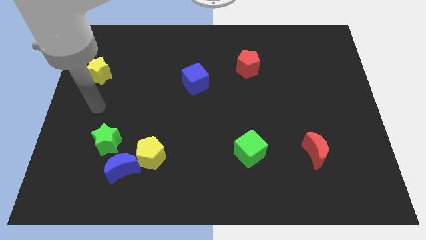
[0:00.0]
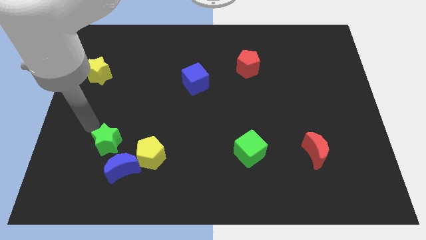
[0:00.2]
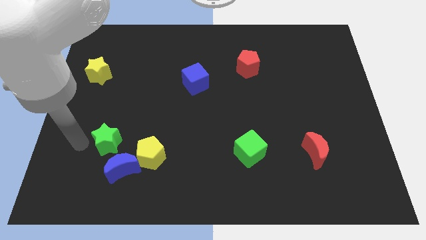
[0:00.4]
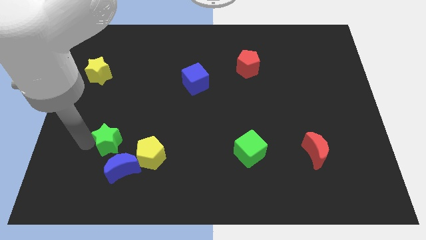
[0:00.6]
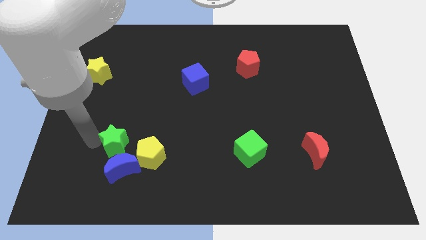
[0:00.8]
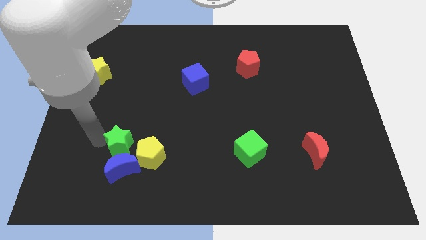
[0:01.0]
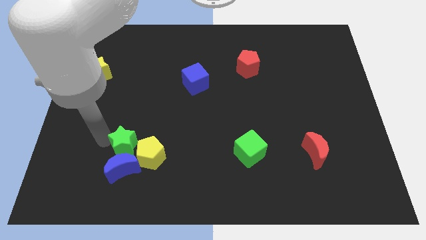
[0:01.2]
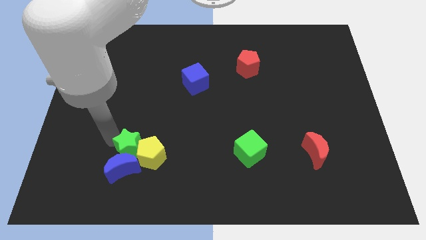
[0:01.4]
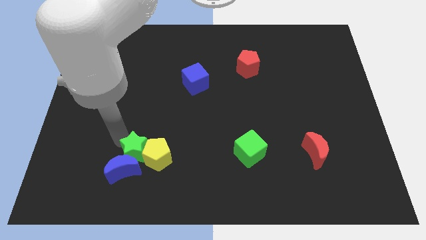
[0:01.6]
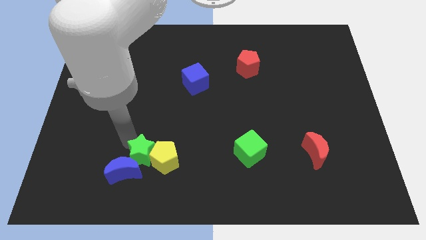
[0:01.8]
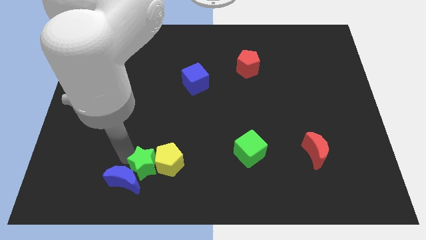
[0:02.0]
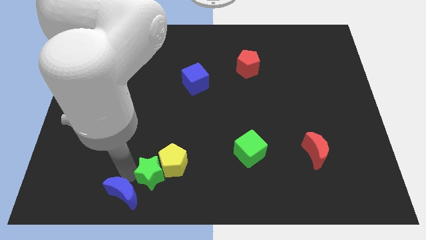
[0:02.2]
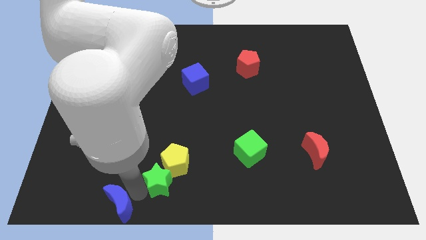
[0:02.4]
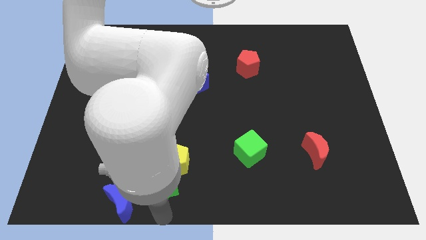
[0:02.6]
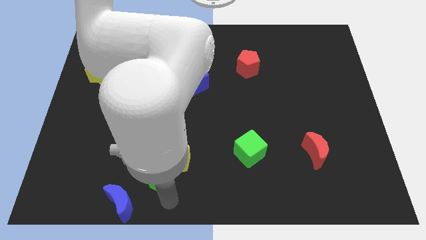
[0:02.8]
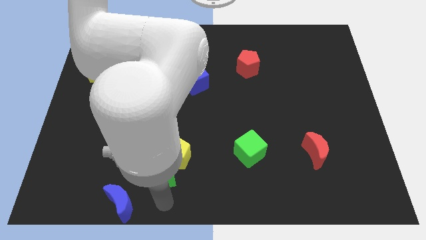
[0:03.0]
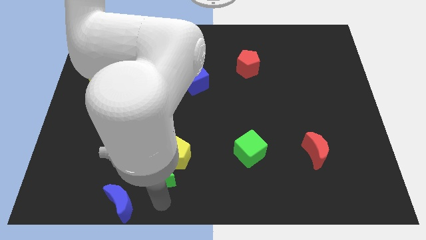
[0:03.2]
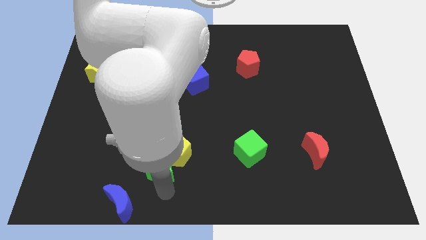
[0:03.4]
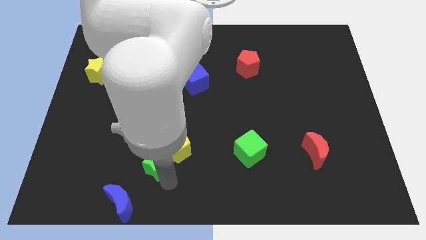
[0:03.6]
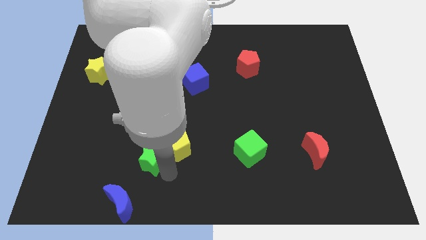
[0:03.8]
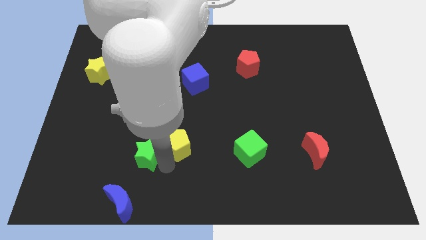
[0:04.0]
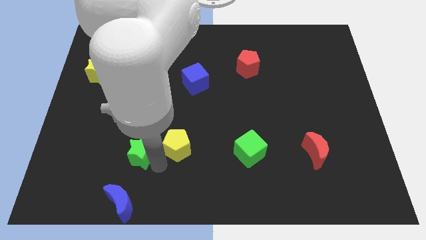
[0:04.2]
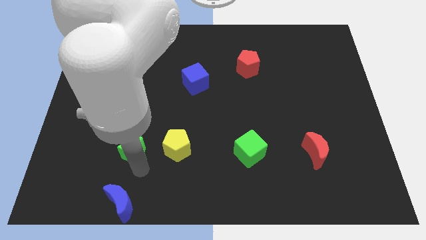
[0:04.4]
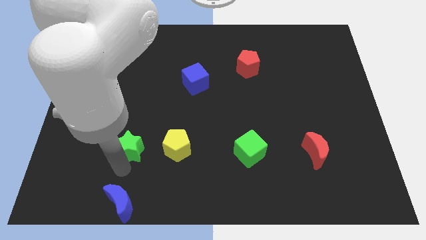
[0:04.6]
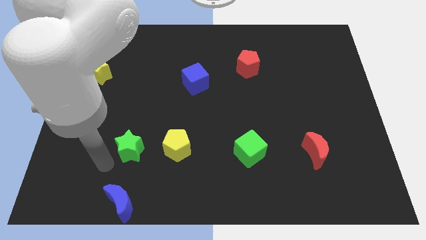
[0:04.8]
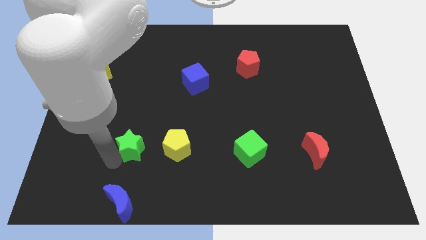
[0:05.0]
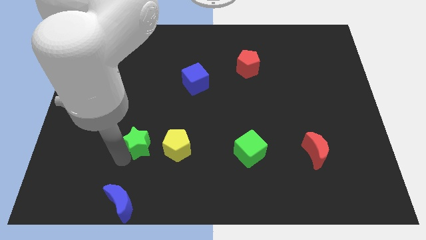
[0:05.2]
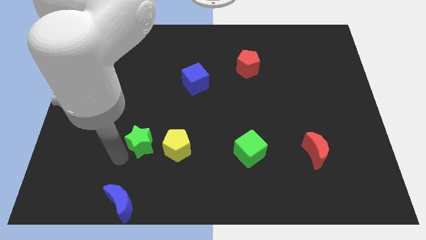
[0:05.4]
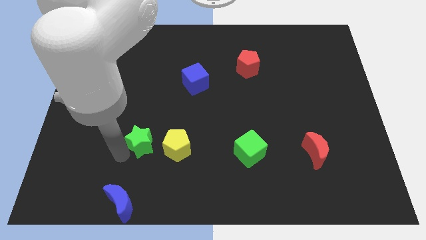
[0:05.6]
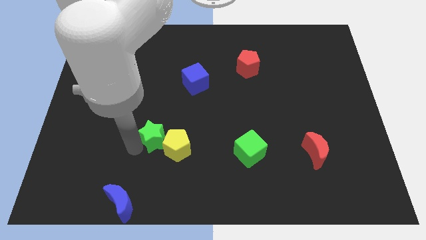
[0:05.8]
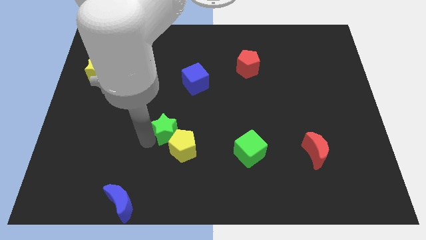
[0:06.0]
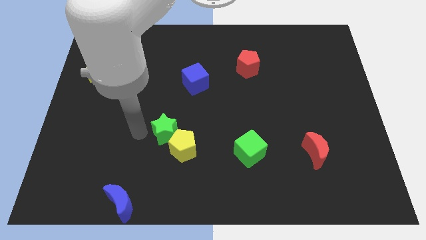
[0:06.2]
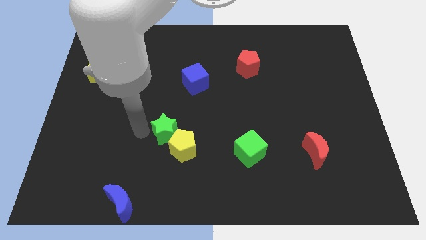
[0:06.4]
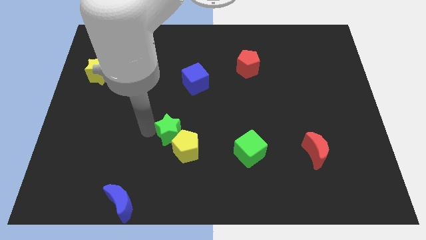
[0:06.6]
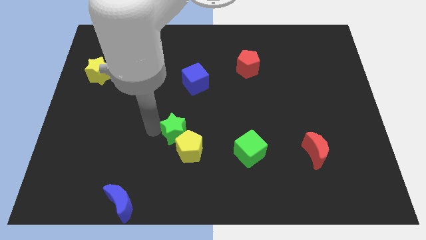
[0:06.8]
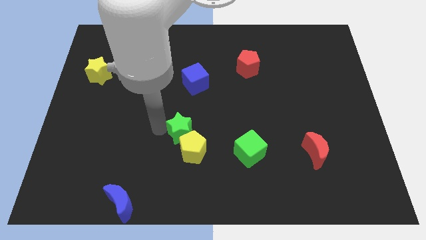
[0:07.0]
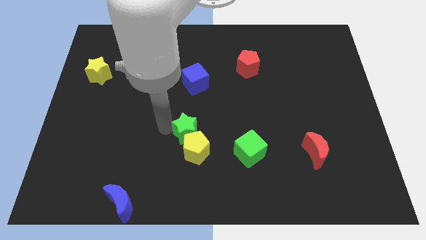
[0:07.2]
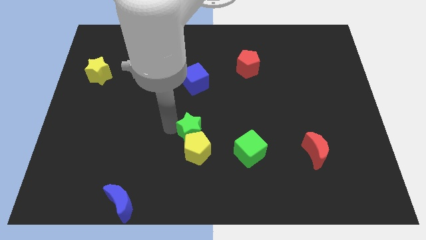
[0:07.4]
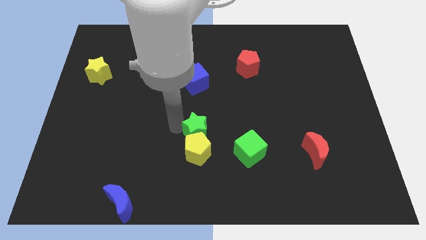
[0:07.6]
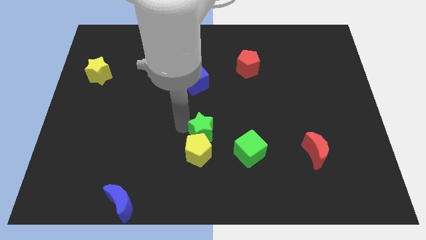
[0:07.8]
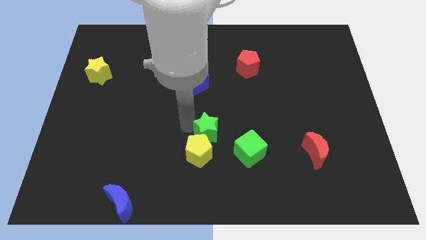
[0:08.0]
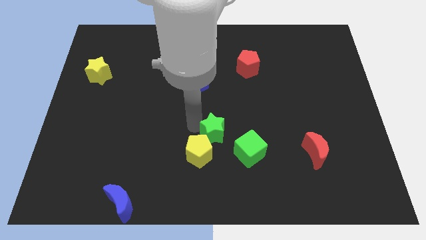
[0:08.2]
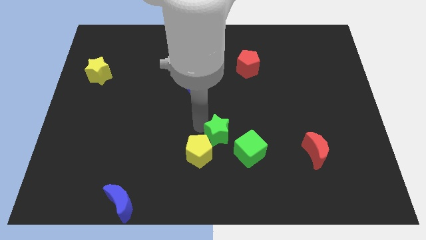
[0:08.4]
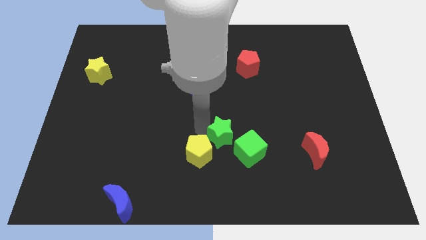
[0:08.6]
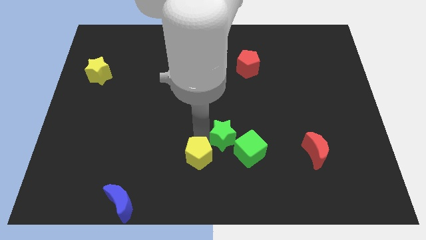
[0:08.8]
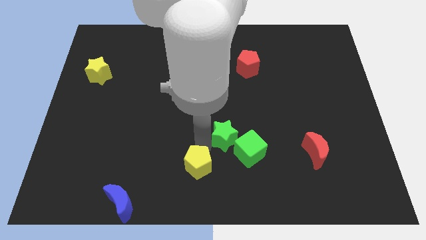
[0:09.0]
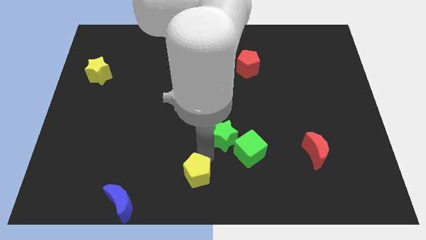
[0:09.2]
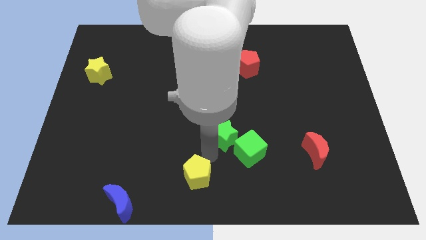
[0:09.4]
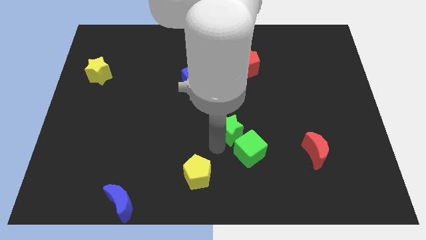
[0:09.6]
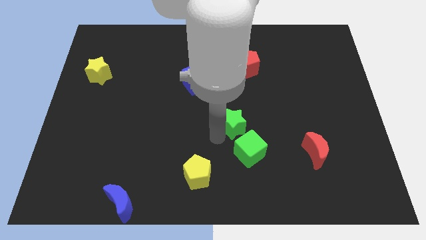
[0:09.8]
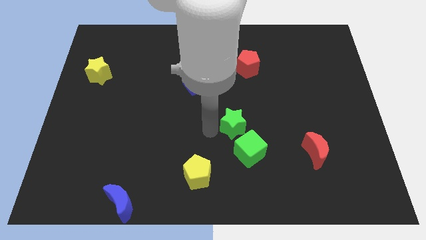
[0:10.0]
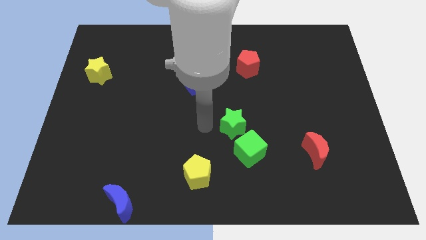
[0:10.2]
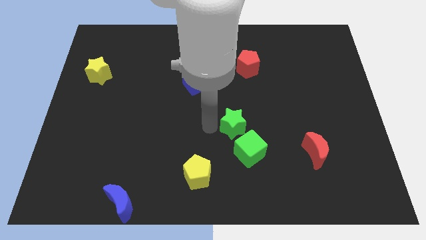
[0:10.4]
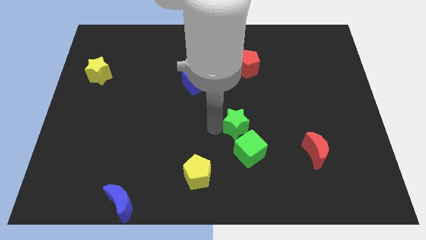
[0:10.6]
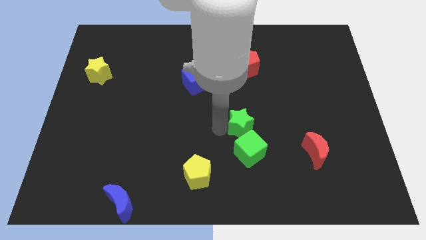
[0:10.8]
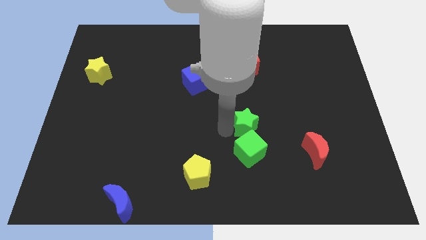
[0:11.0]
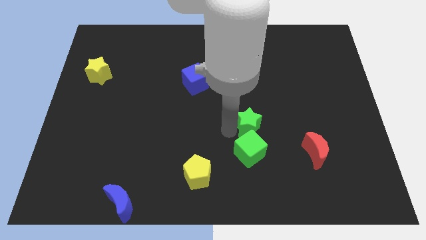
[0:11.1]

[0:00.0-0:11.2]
slide the green star to the top right side of the green cube

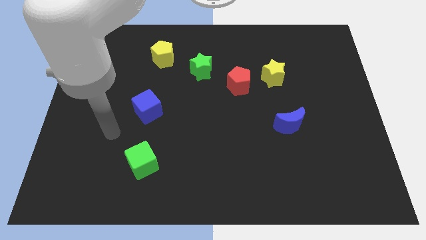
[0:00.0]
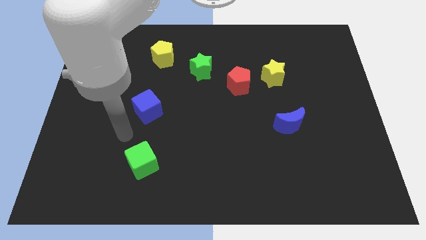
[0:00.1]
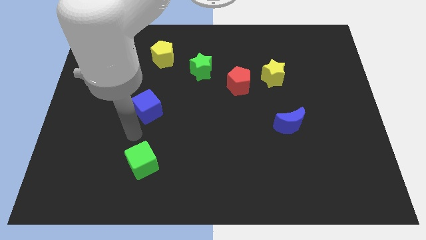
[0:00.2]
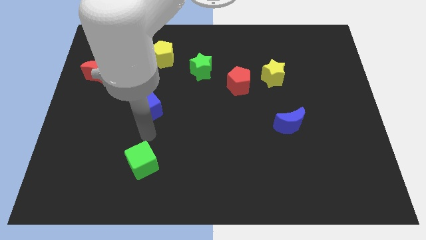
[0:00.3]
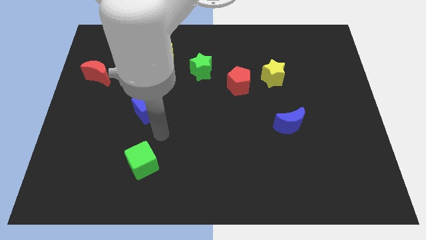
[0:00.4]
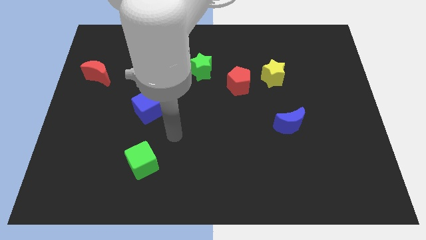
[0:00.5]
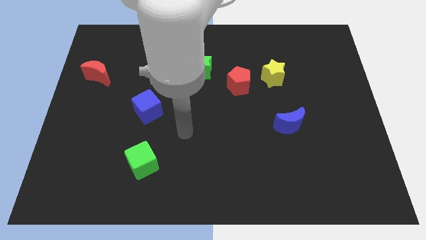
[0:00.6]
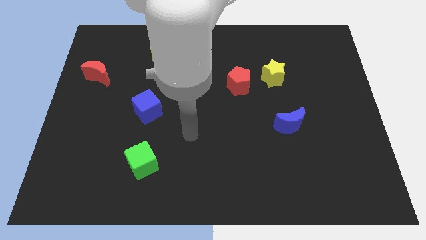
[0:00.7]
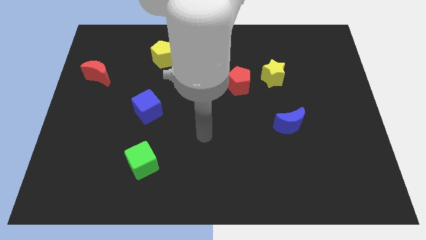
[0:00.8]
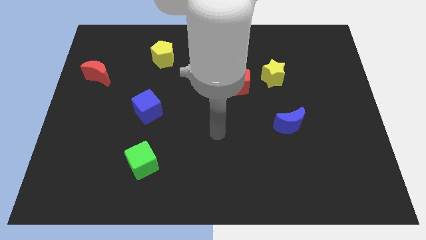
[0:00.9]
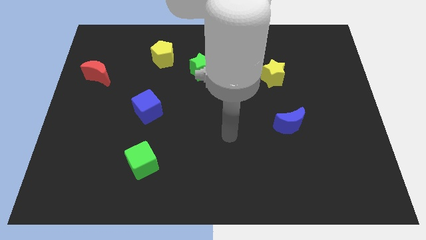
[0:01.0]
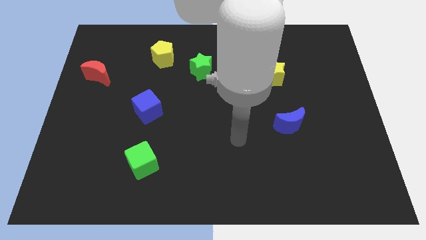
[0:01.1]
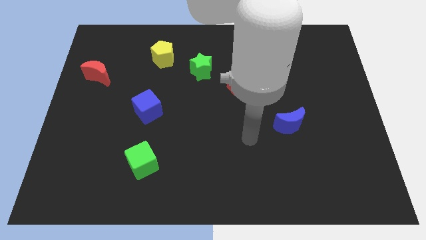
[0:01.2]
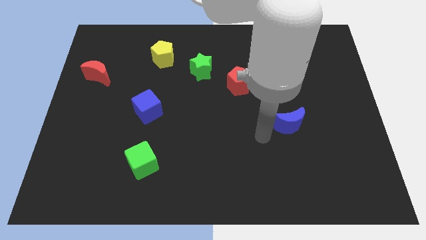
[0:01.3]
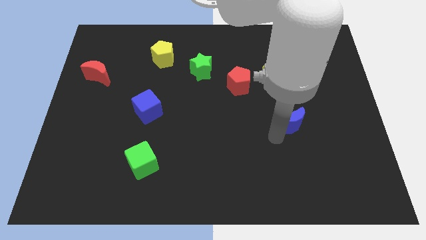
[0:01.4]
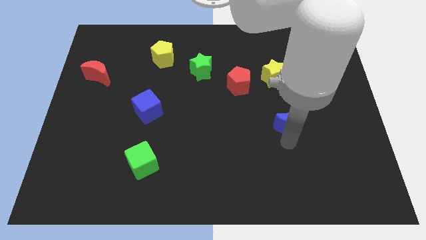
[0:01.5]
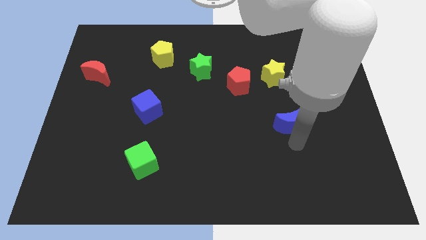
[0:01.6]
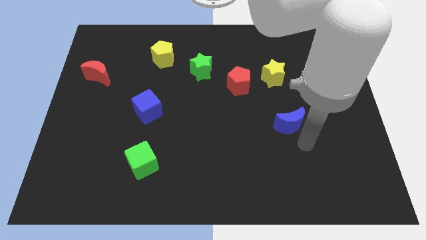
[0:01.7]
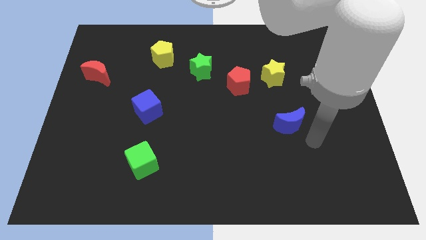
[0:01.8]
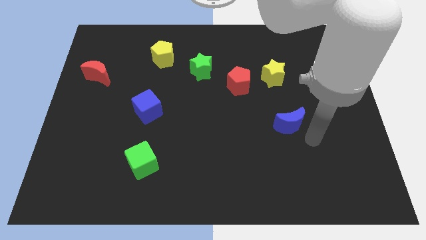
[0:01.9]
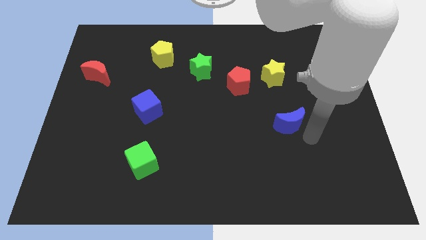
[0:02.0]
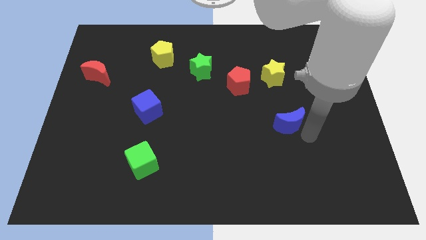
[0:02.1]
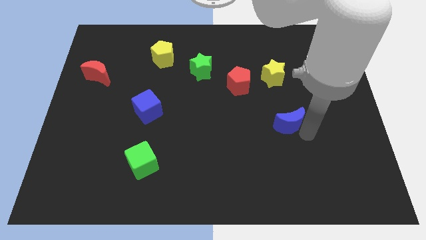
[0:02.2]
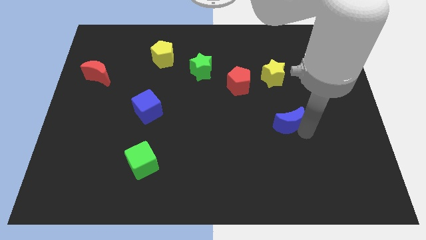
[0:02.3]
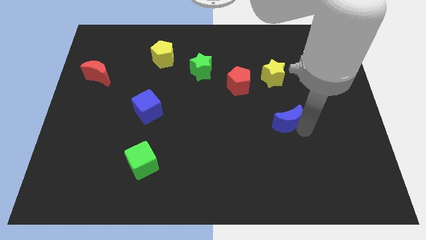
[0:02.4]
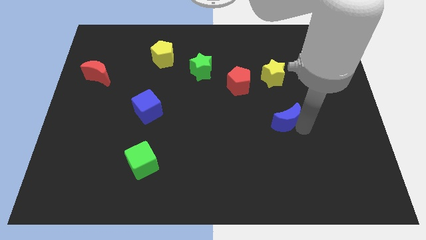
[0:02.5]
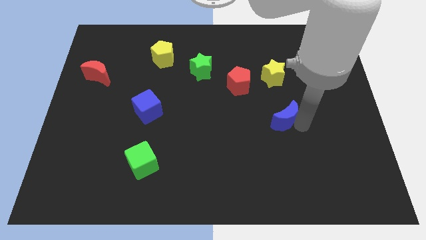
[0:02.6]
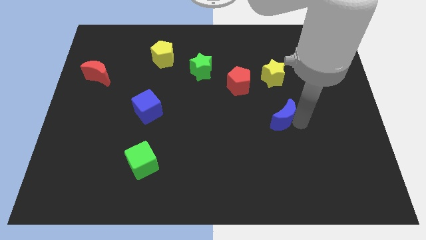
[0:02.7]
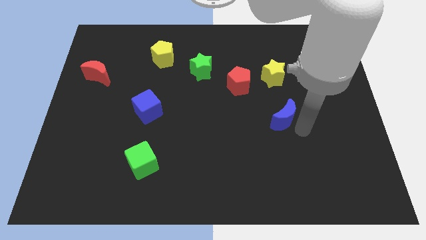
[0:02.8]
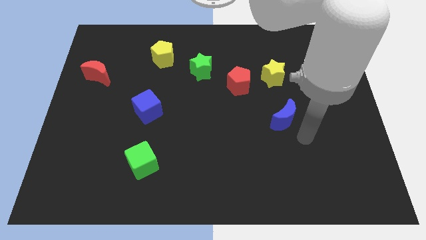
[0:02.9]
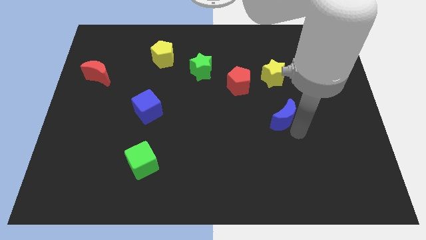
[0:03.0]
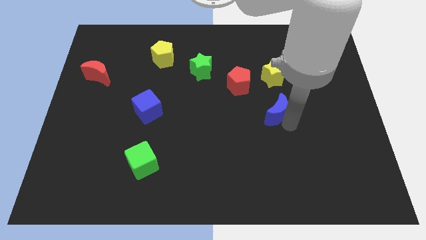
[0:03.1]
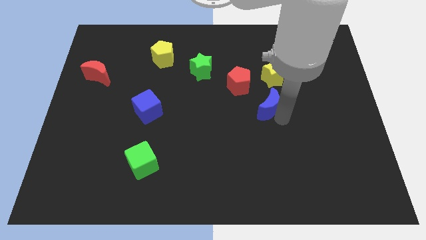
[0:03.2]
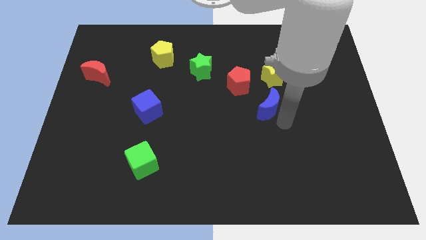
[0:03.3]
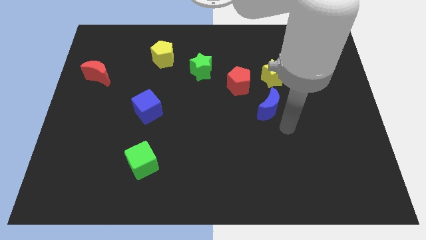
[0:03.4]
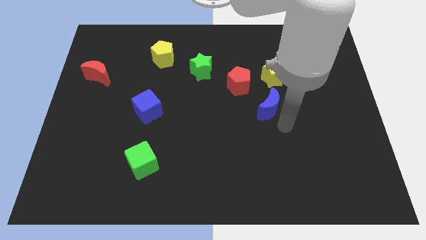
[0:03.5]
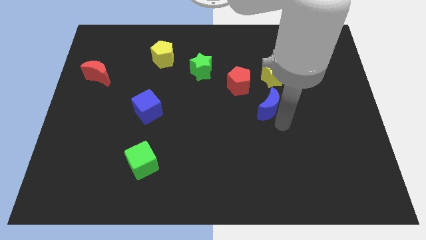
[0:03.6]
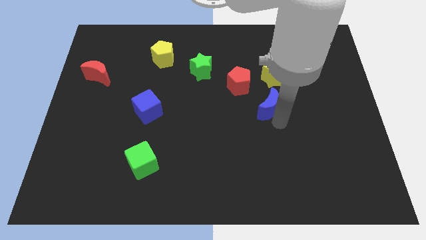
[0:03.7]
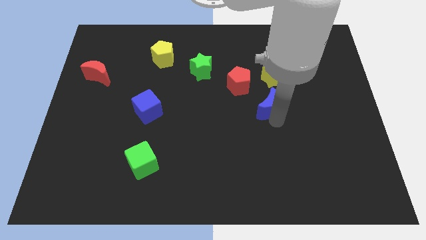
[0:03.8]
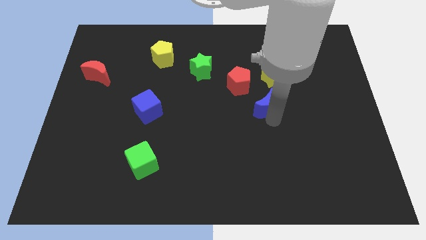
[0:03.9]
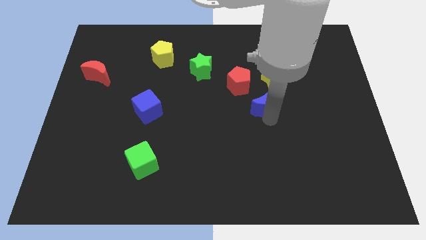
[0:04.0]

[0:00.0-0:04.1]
move the blue moon diagonally down and to the left of the yellow star
